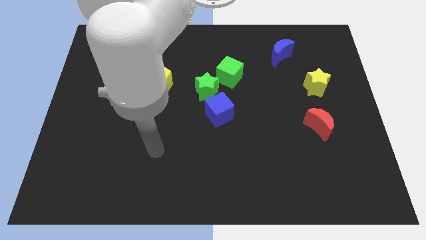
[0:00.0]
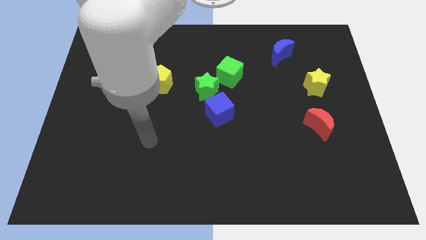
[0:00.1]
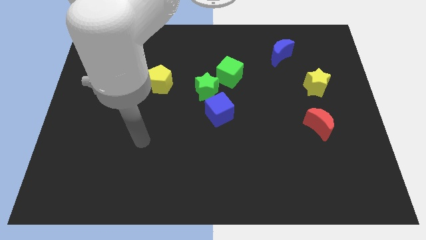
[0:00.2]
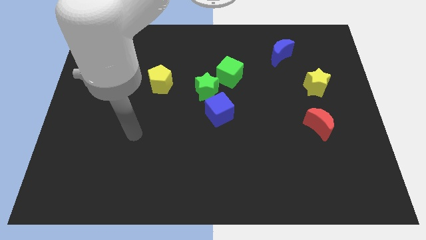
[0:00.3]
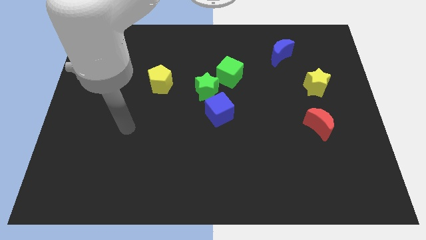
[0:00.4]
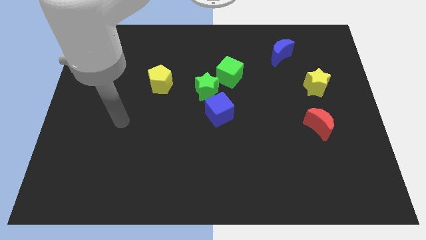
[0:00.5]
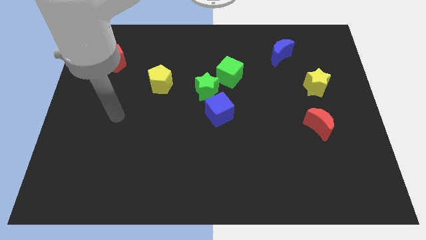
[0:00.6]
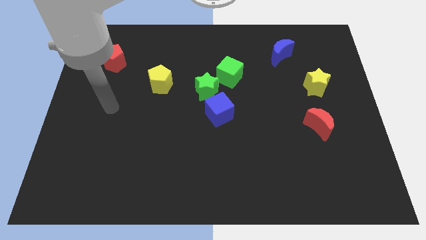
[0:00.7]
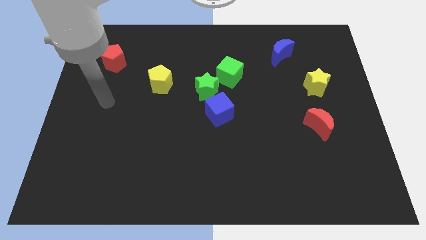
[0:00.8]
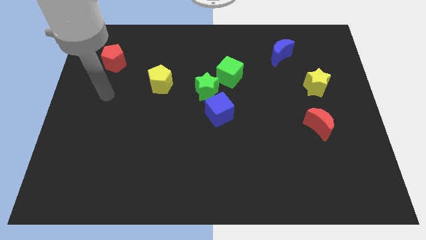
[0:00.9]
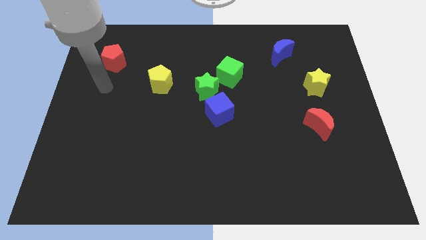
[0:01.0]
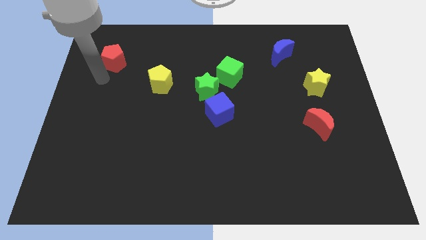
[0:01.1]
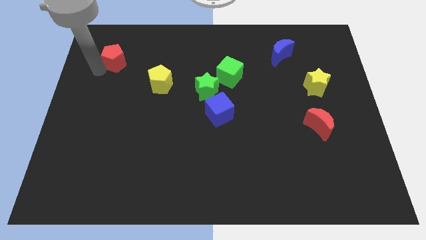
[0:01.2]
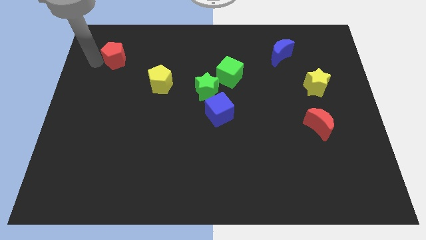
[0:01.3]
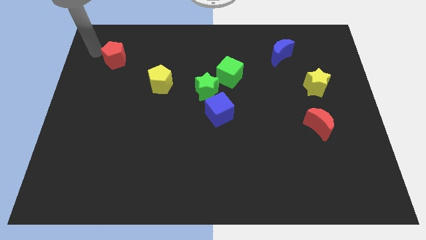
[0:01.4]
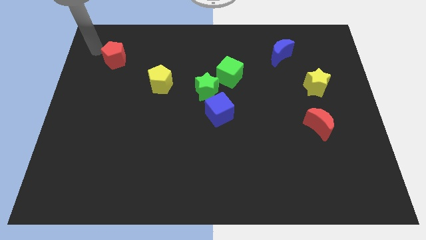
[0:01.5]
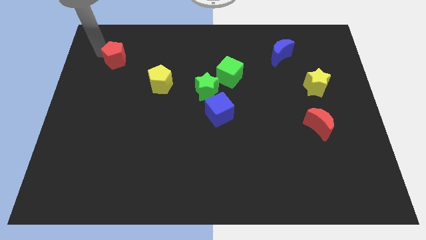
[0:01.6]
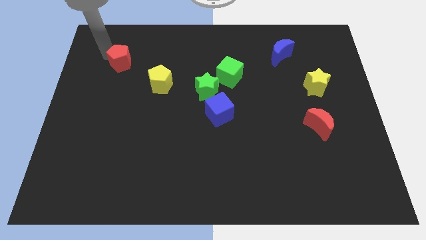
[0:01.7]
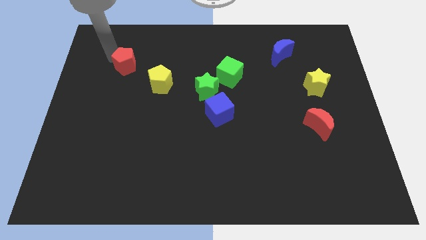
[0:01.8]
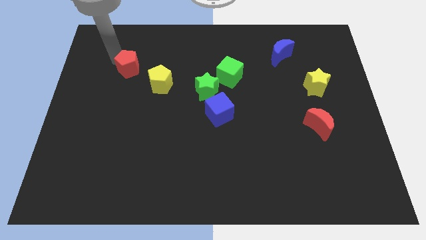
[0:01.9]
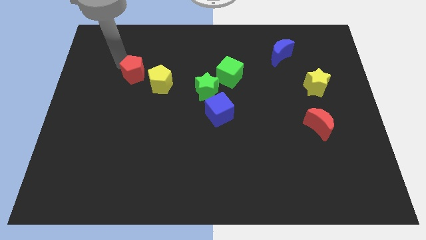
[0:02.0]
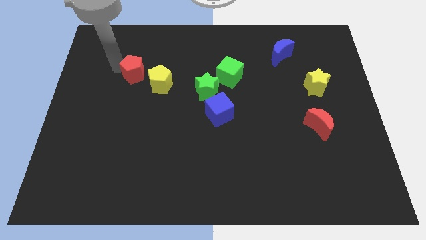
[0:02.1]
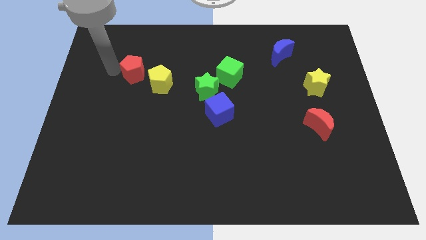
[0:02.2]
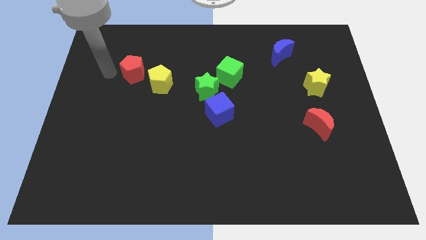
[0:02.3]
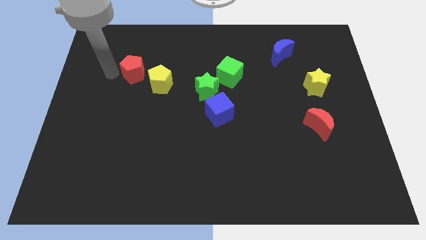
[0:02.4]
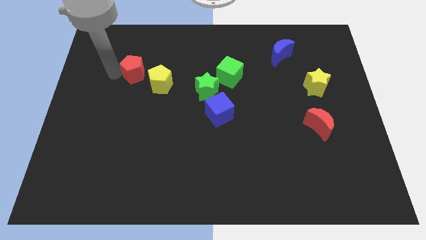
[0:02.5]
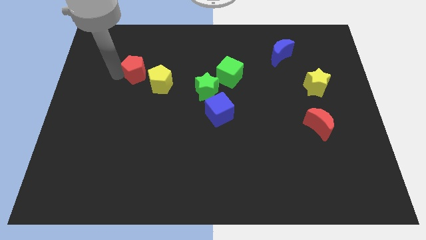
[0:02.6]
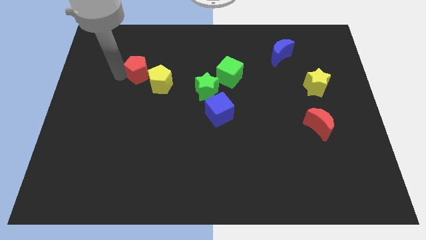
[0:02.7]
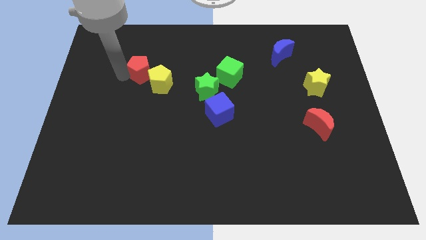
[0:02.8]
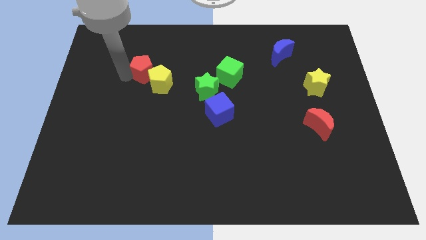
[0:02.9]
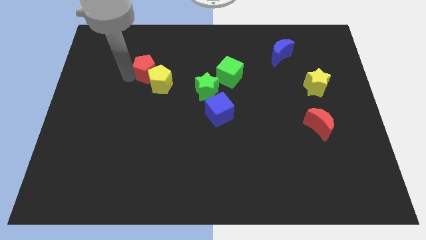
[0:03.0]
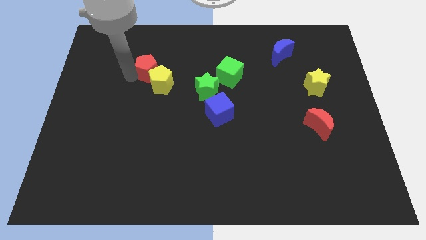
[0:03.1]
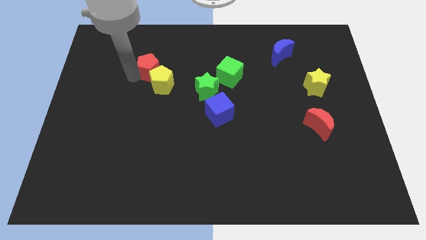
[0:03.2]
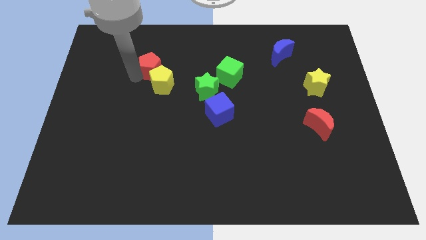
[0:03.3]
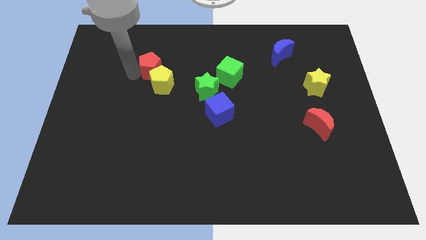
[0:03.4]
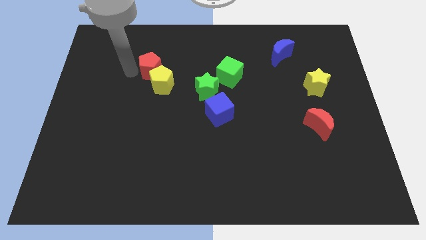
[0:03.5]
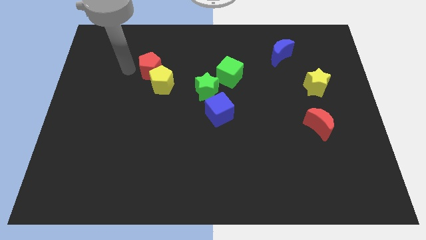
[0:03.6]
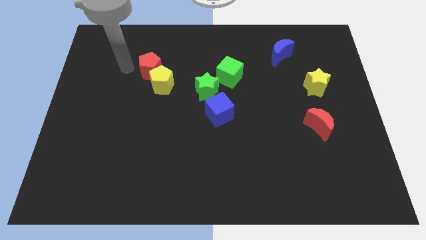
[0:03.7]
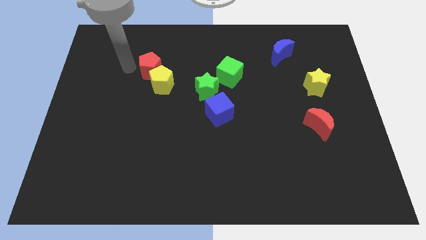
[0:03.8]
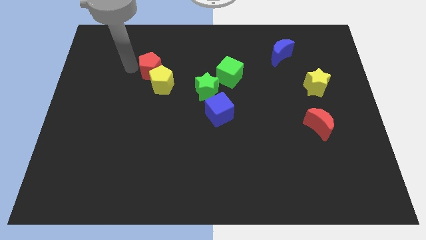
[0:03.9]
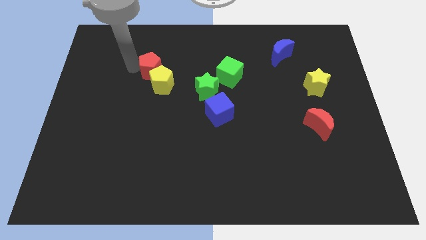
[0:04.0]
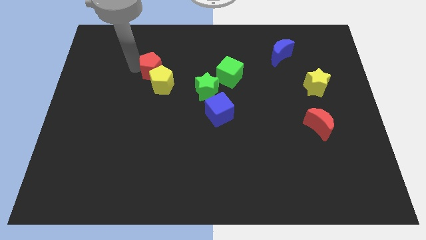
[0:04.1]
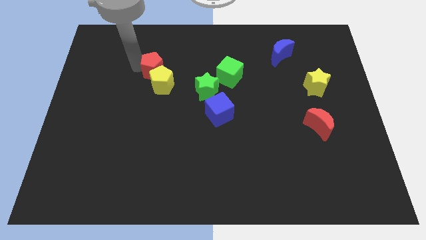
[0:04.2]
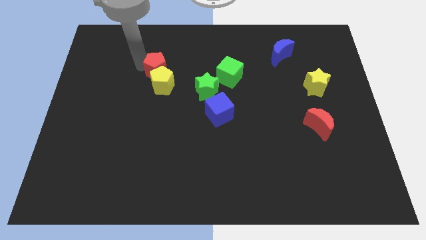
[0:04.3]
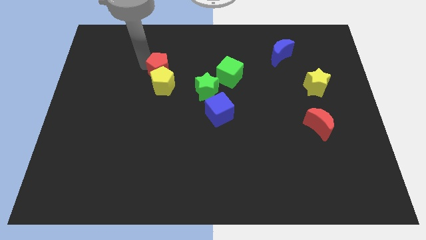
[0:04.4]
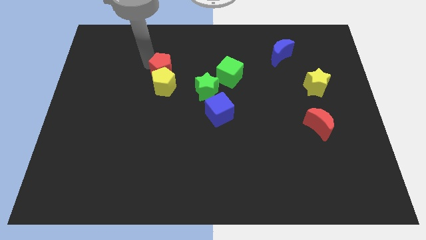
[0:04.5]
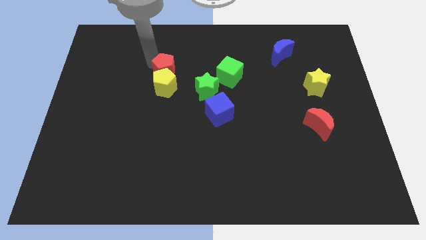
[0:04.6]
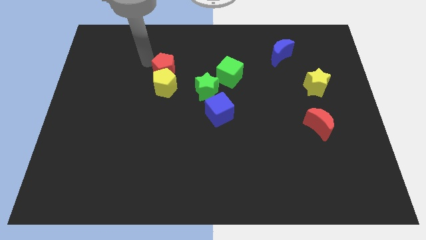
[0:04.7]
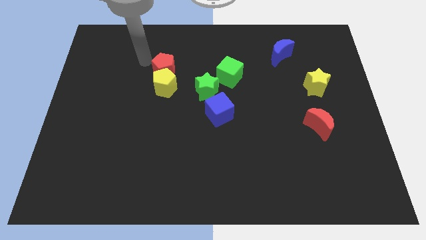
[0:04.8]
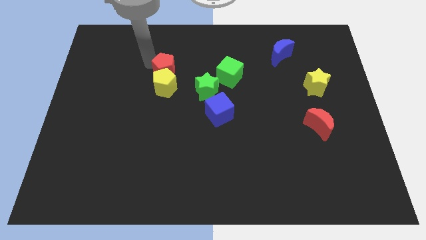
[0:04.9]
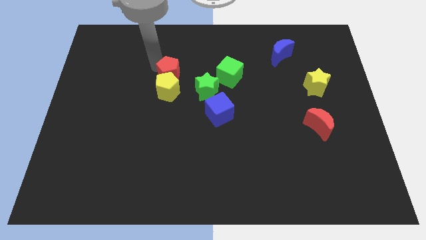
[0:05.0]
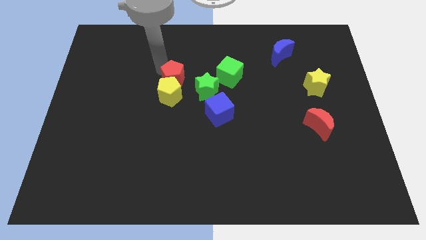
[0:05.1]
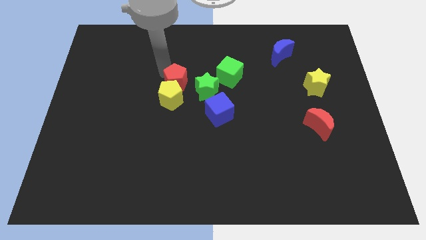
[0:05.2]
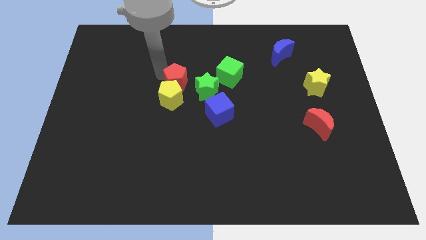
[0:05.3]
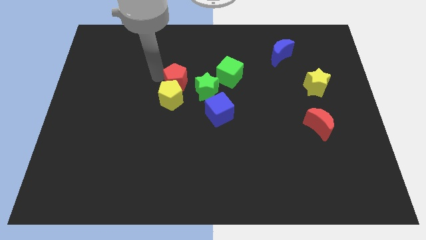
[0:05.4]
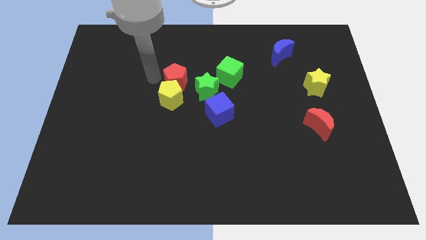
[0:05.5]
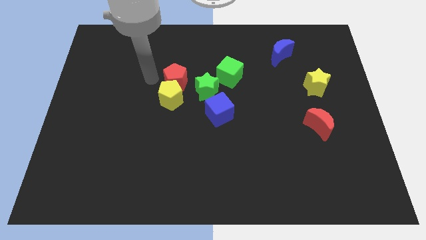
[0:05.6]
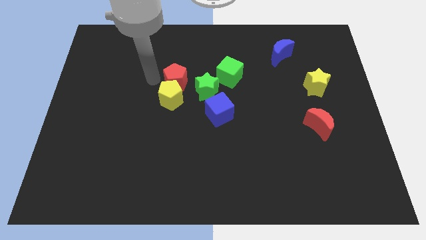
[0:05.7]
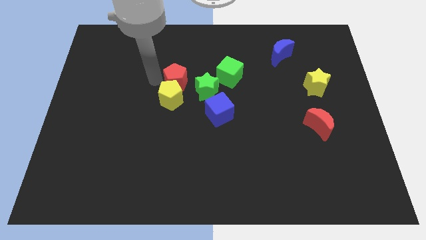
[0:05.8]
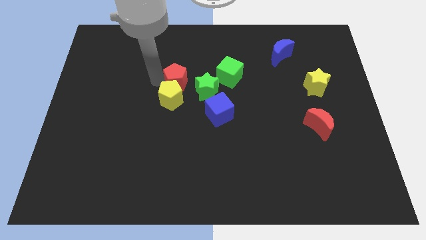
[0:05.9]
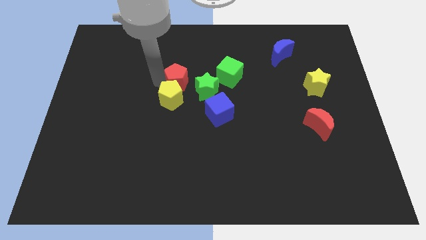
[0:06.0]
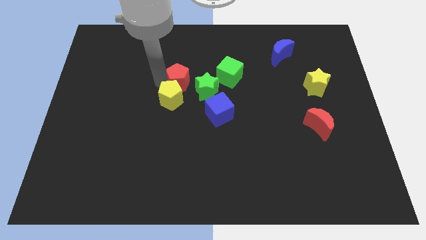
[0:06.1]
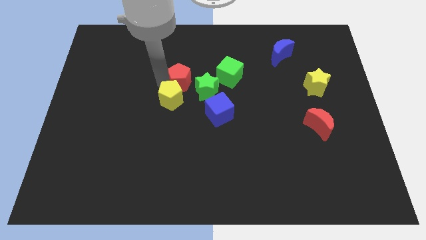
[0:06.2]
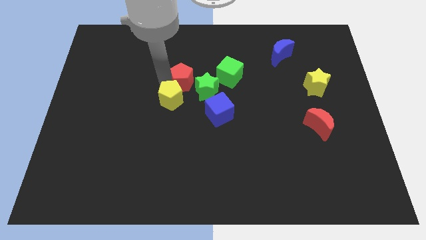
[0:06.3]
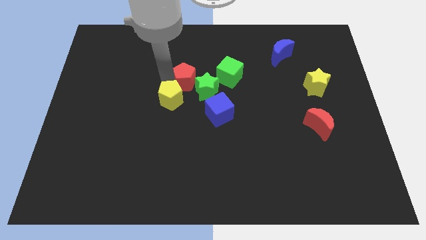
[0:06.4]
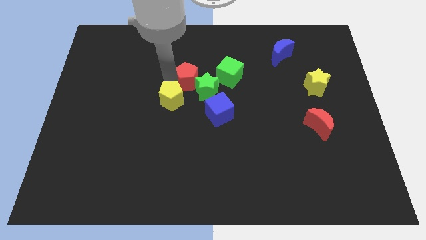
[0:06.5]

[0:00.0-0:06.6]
push the red pentagon next to the green star

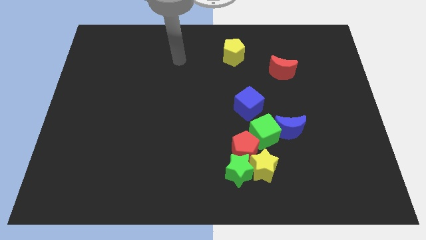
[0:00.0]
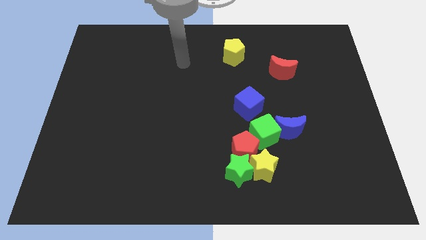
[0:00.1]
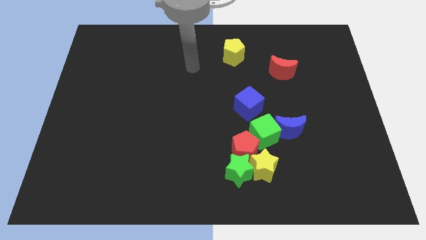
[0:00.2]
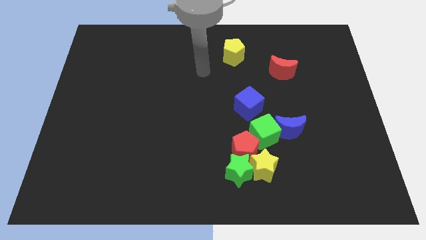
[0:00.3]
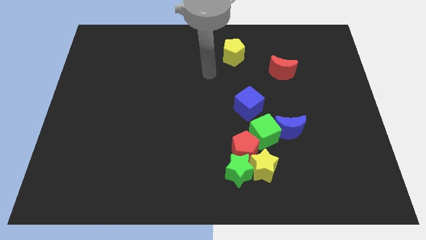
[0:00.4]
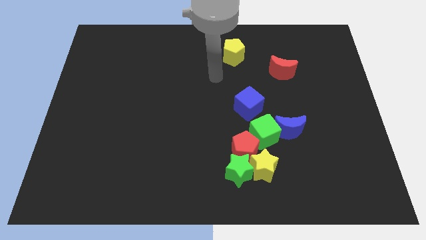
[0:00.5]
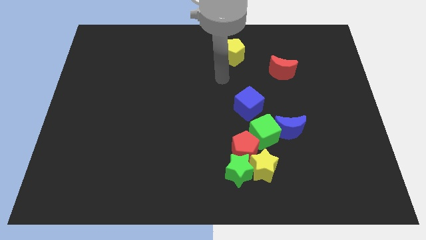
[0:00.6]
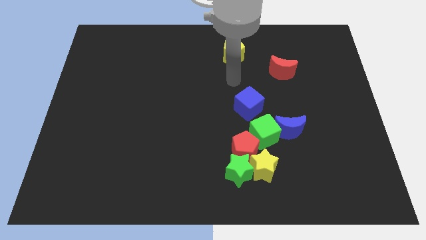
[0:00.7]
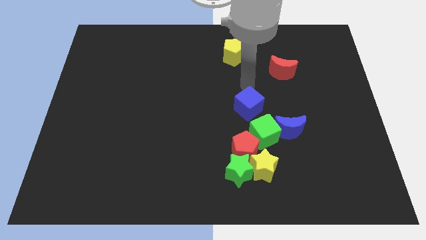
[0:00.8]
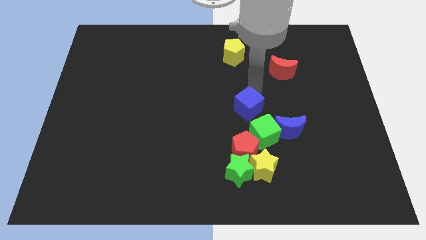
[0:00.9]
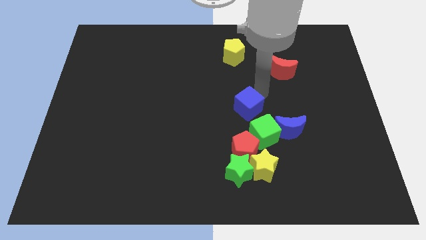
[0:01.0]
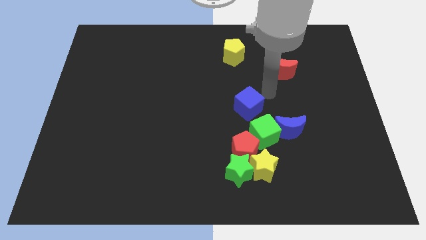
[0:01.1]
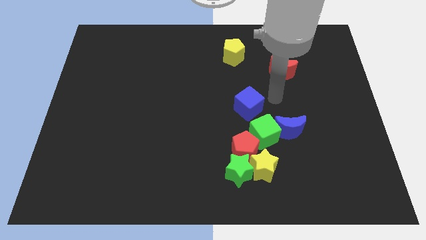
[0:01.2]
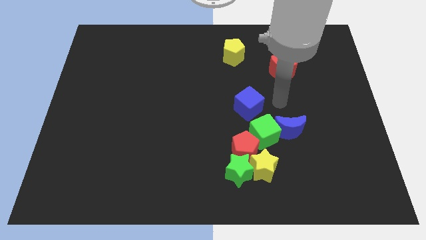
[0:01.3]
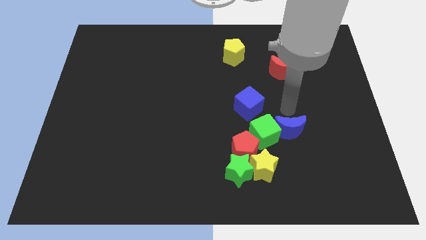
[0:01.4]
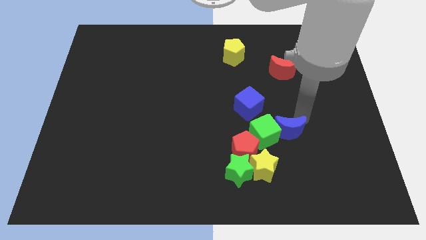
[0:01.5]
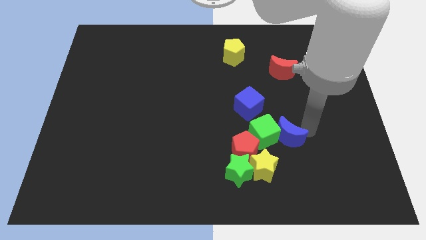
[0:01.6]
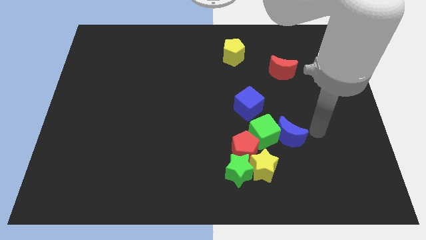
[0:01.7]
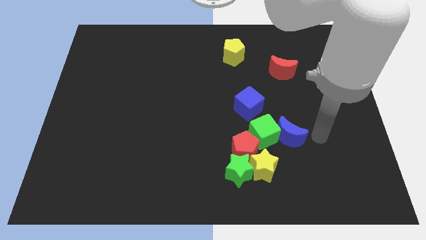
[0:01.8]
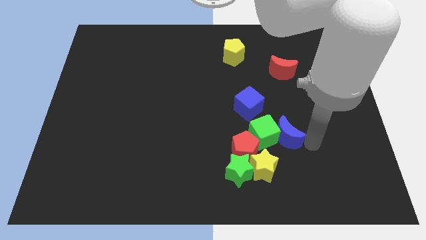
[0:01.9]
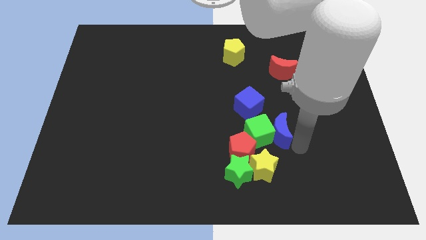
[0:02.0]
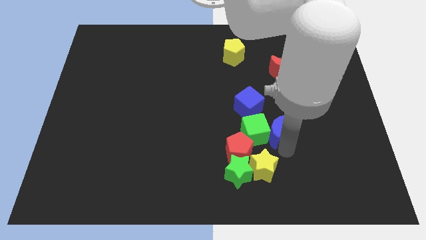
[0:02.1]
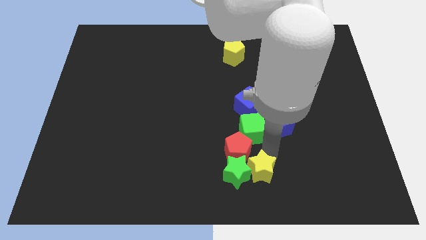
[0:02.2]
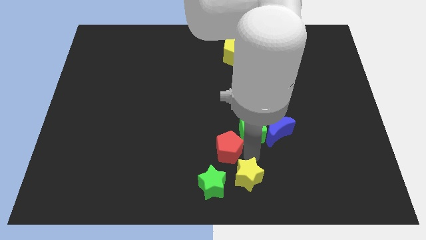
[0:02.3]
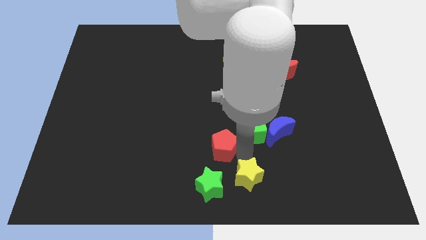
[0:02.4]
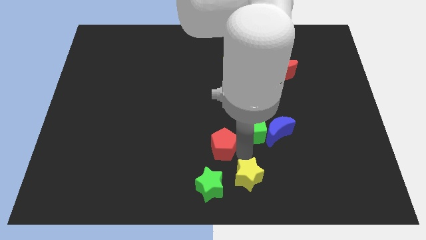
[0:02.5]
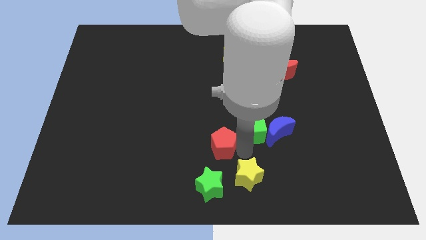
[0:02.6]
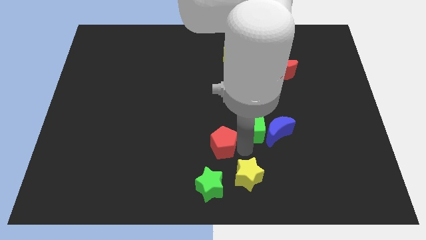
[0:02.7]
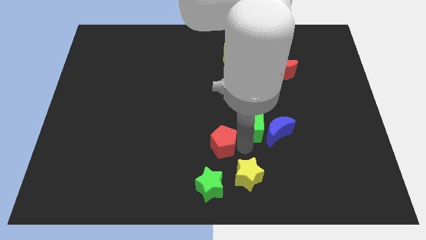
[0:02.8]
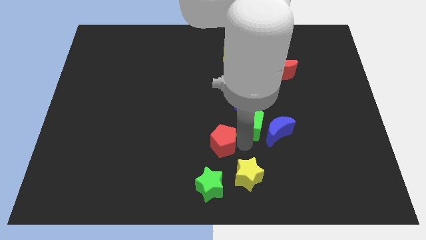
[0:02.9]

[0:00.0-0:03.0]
move the green cube next to the blue cube
